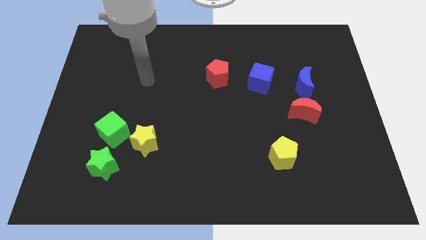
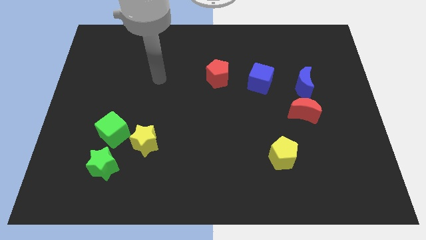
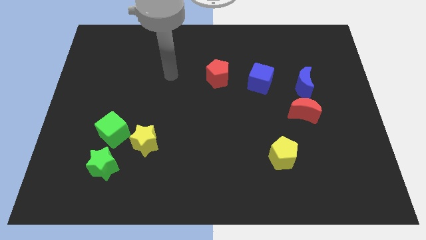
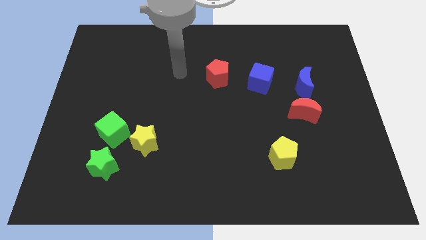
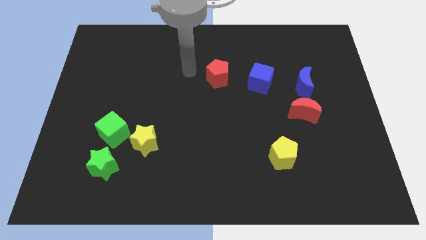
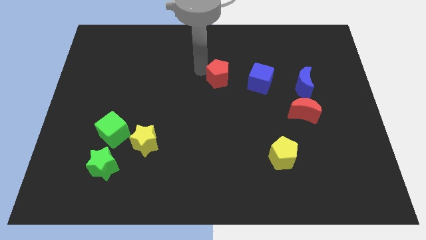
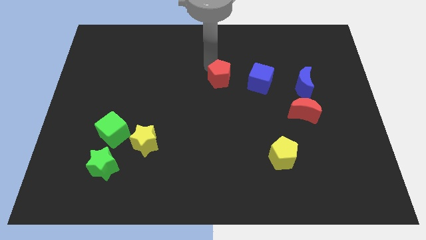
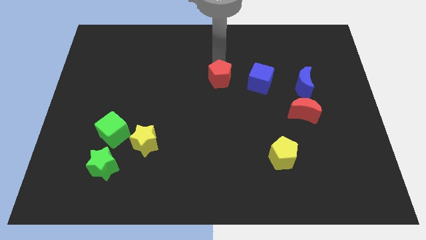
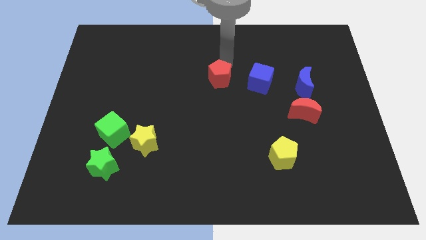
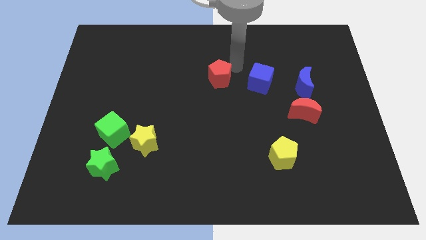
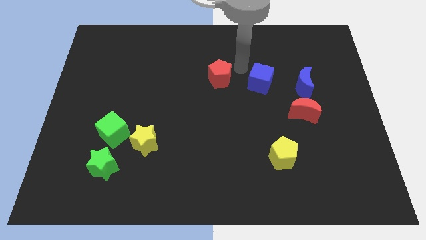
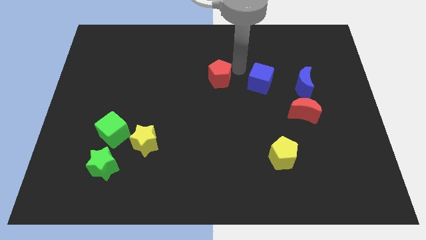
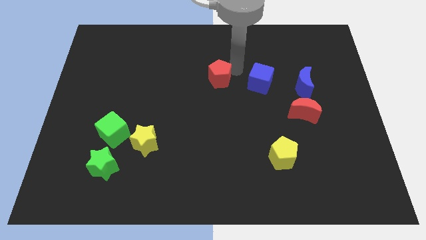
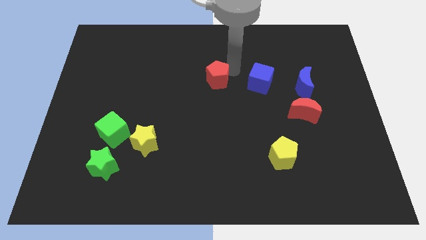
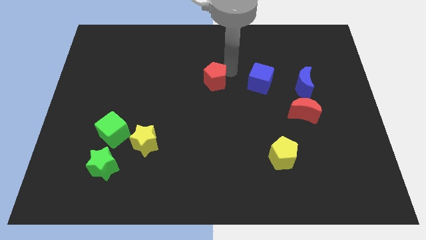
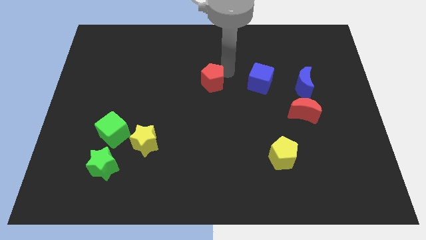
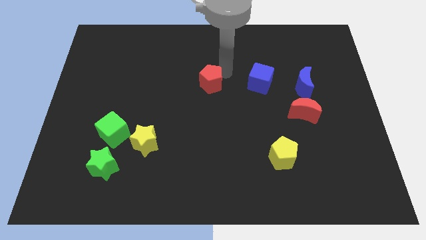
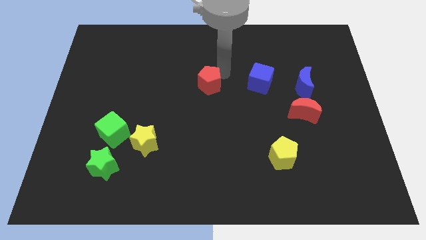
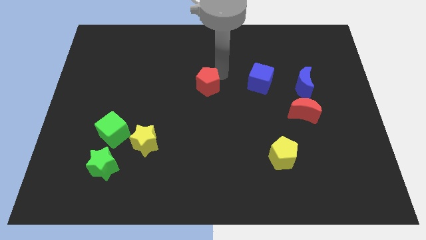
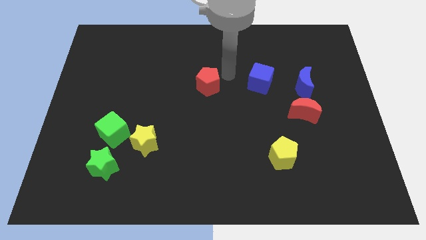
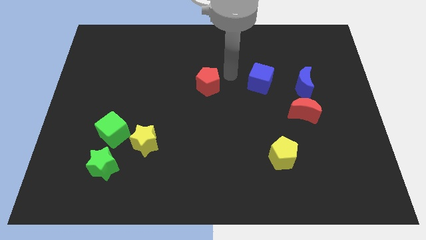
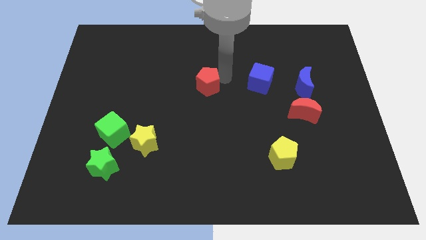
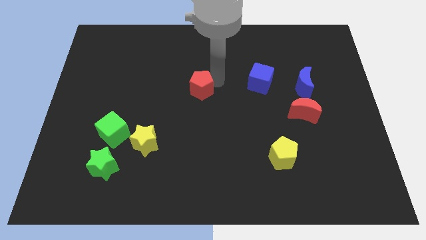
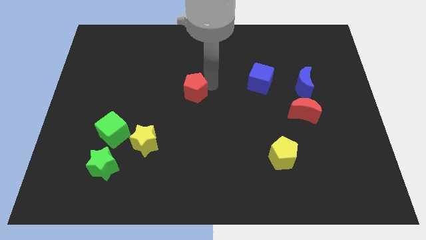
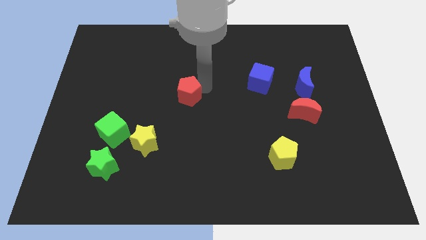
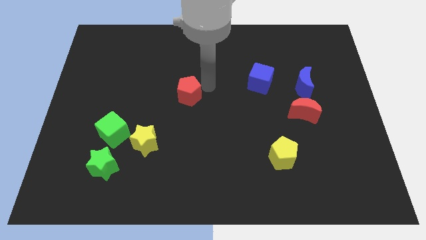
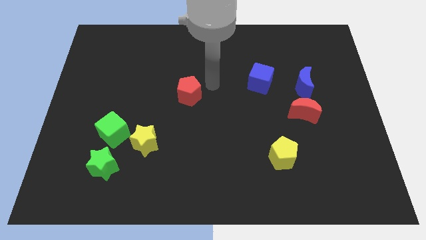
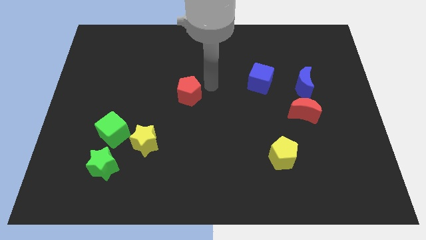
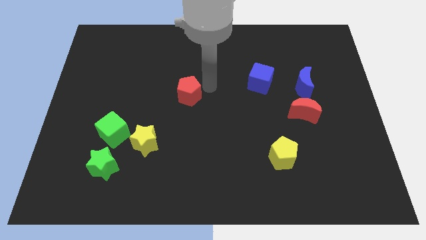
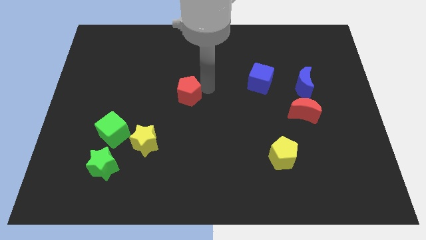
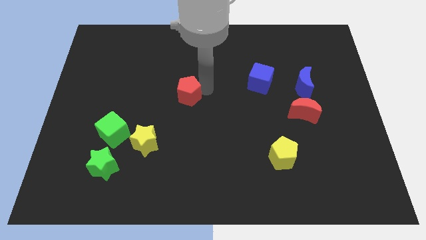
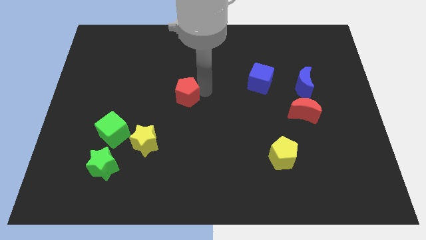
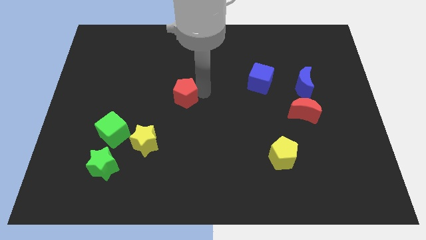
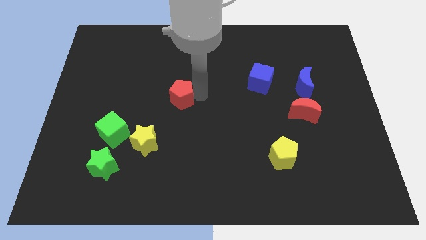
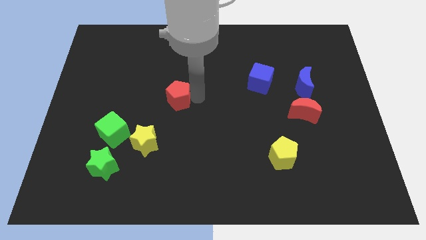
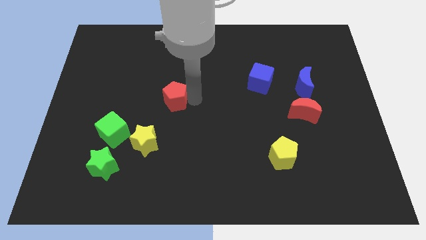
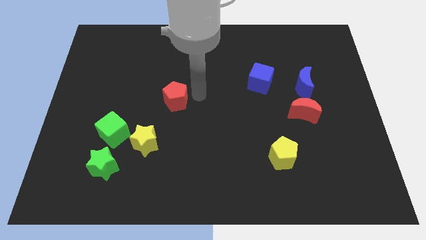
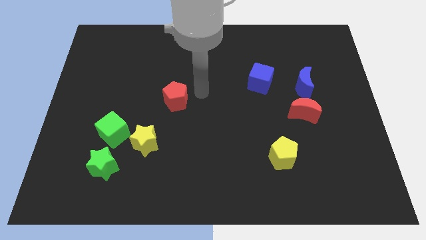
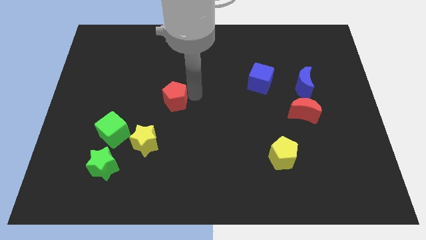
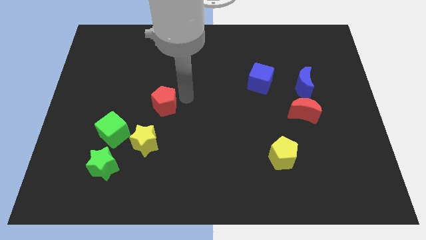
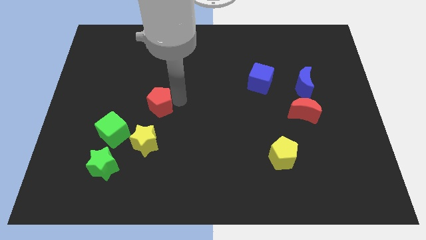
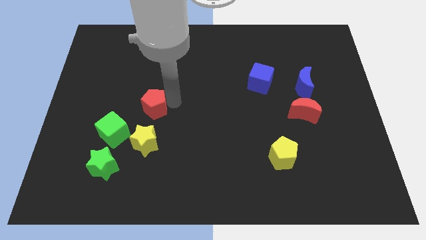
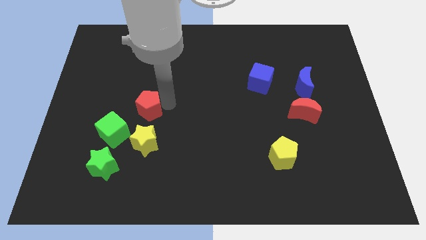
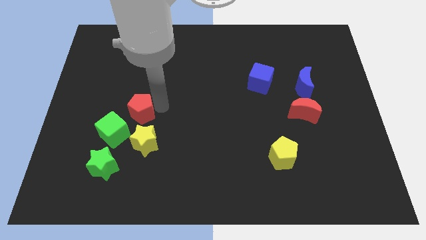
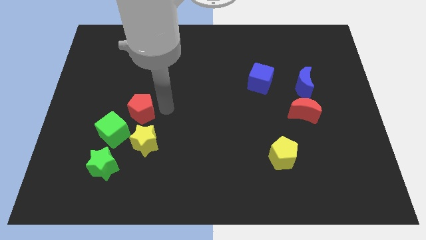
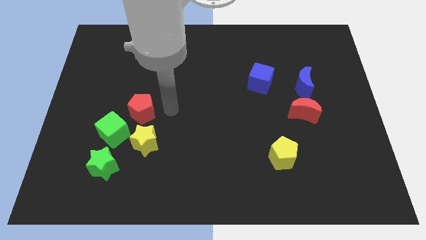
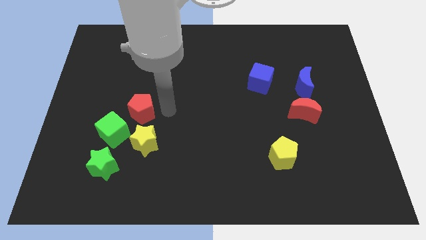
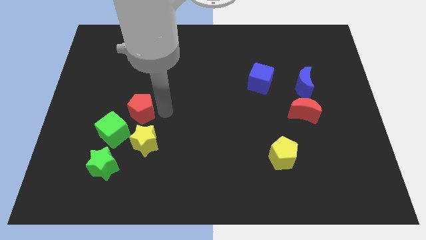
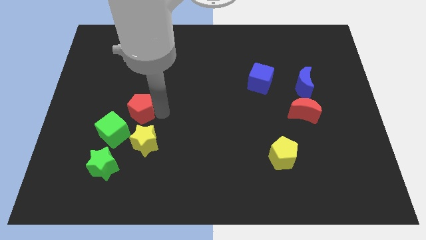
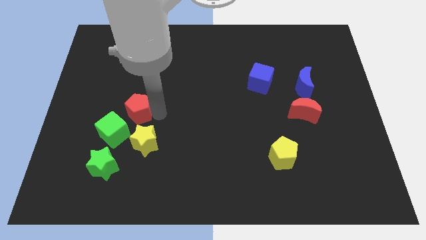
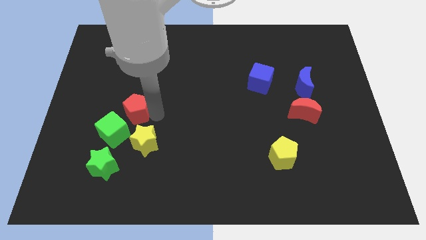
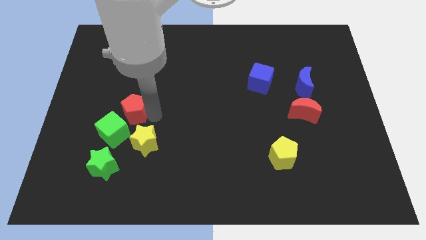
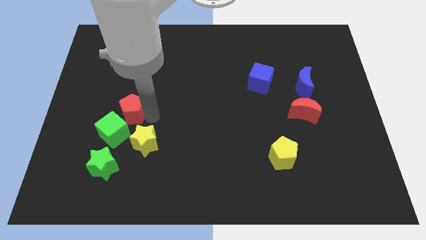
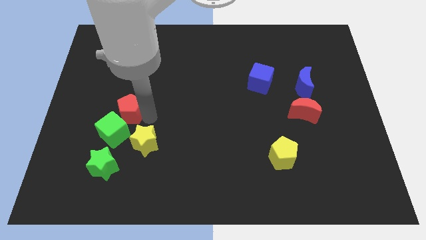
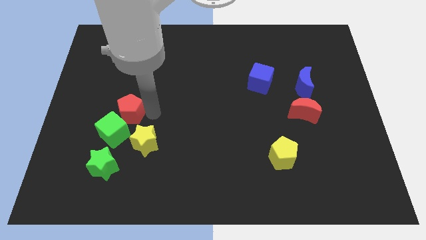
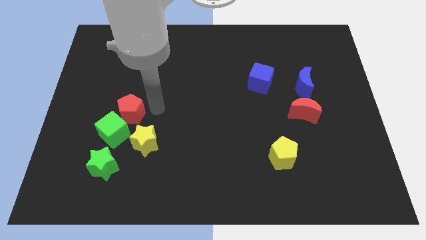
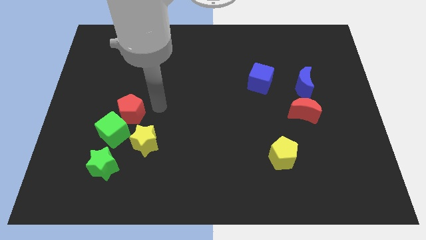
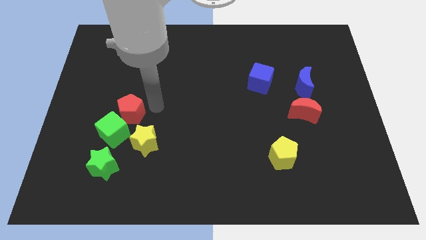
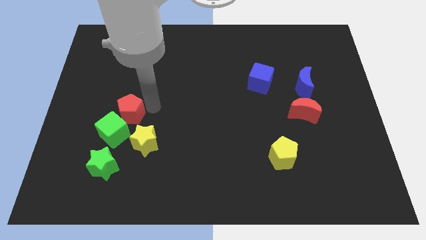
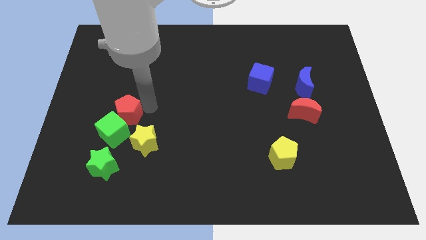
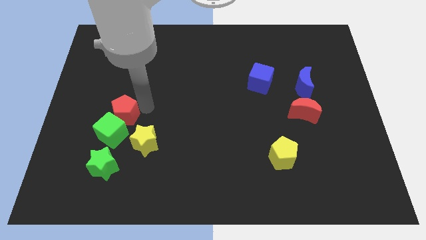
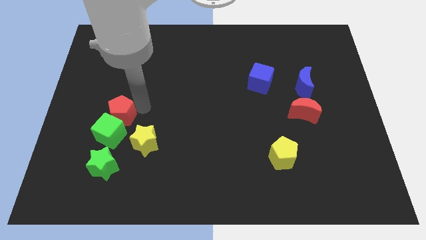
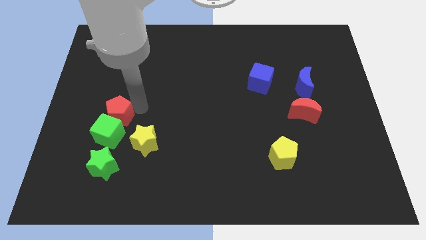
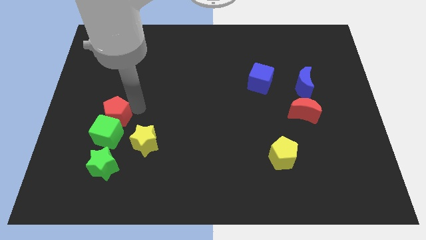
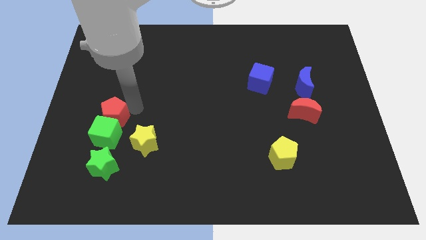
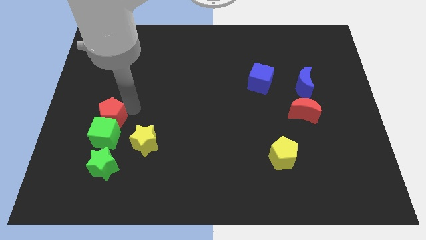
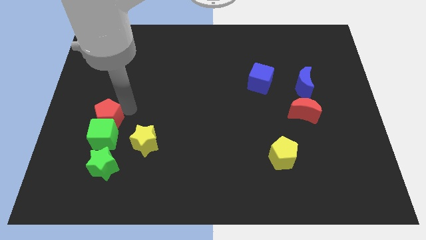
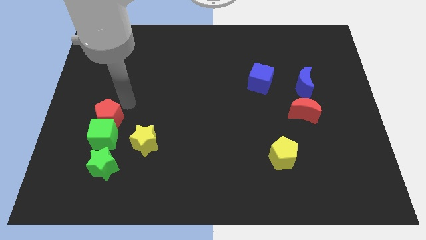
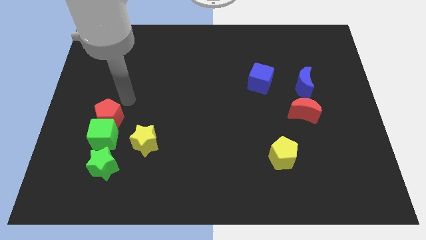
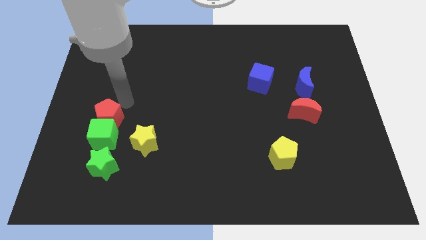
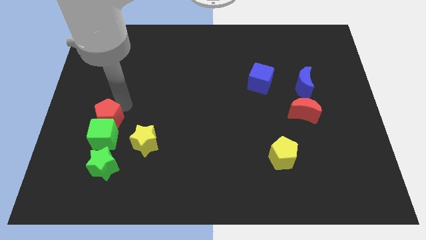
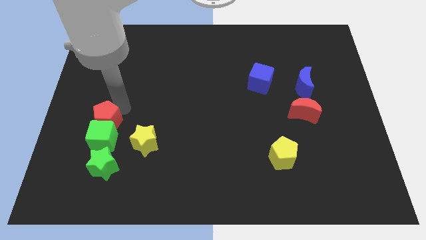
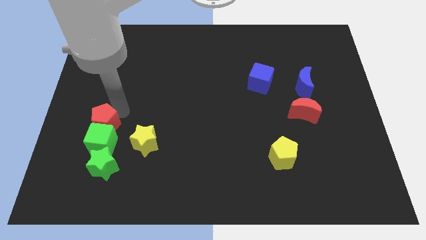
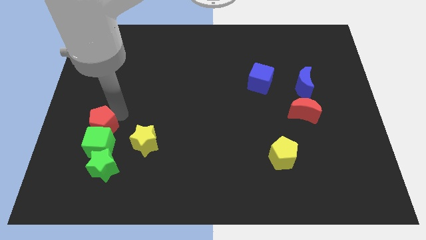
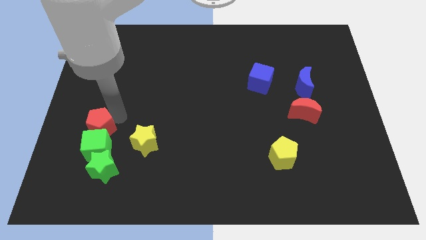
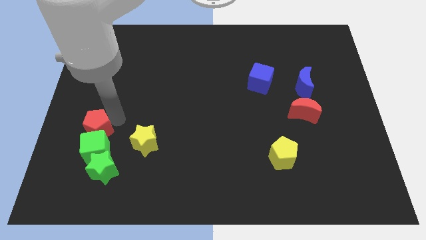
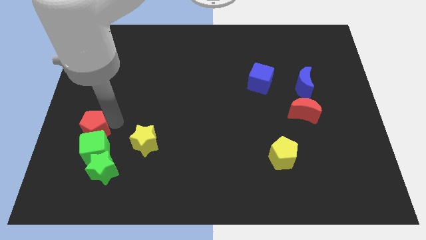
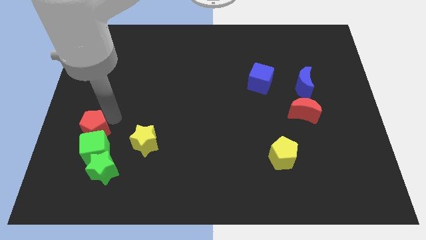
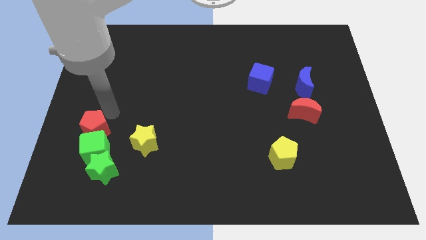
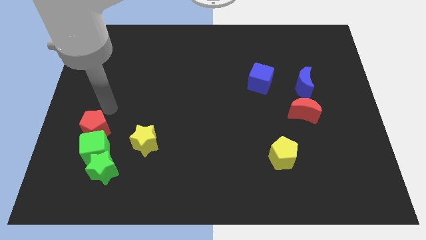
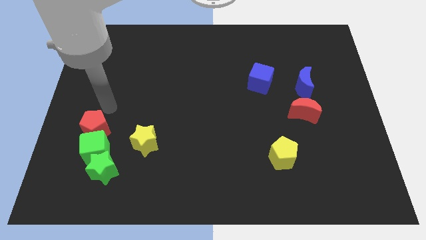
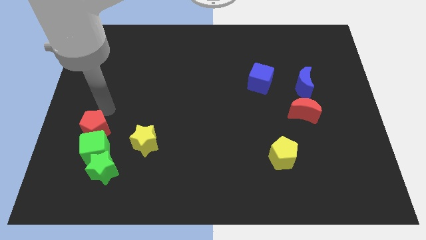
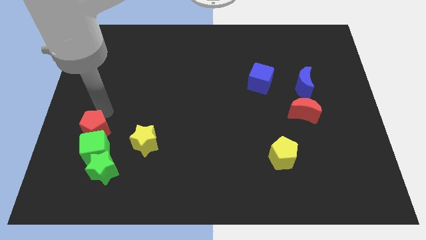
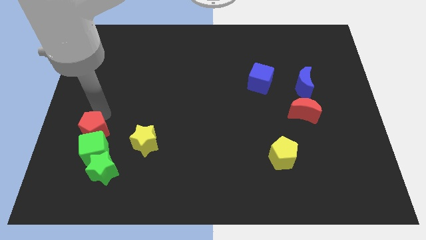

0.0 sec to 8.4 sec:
push the red pentagon to the top left side of the green star
